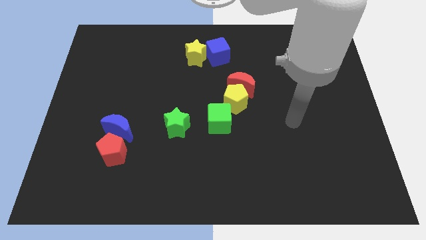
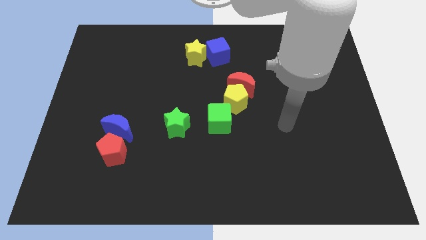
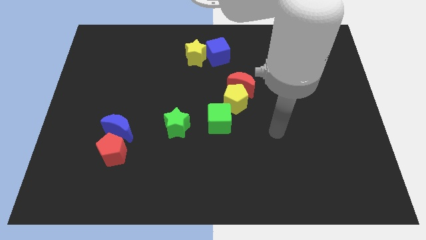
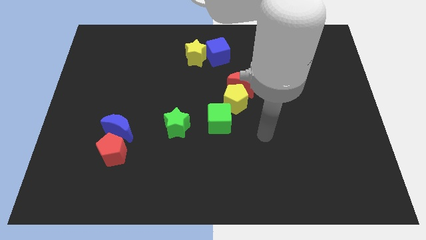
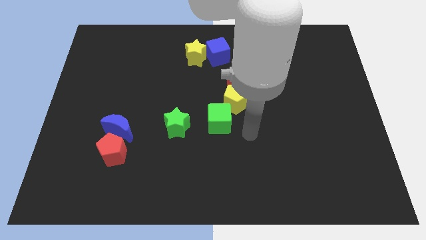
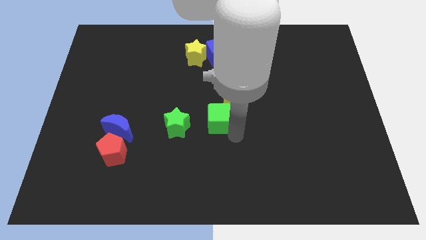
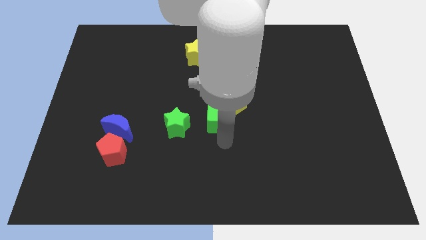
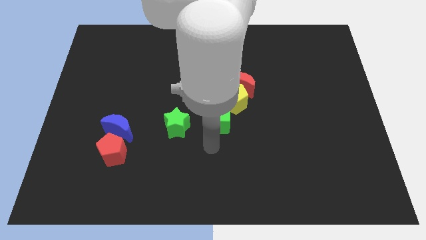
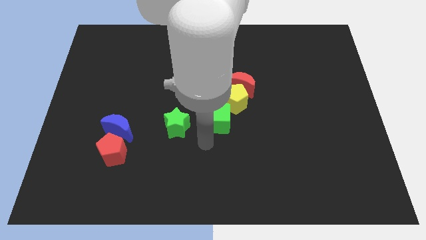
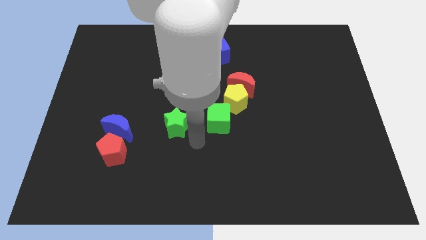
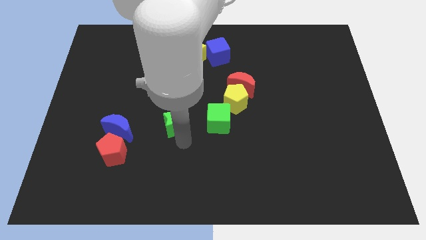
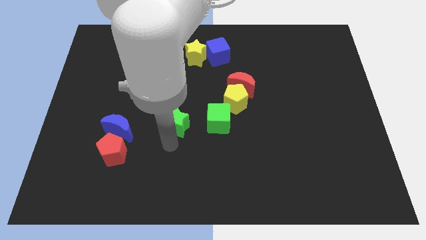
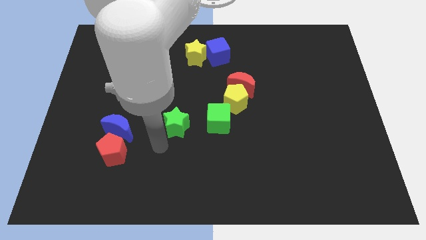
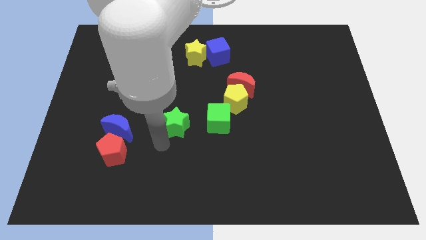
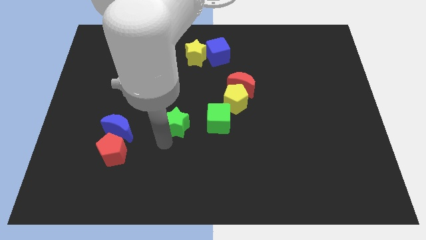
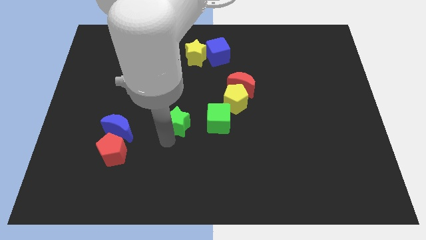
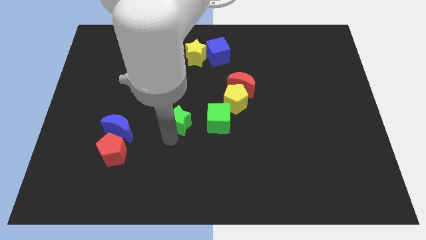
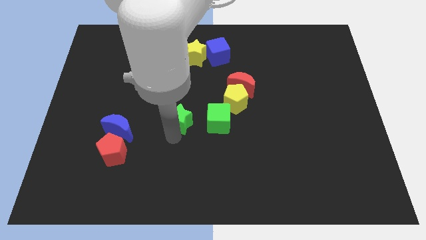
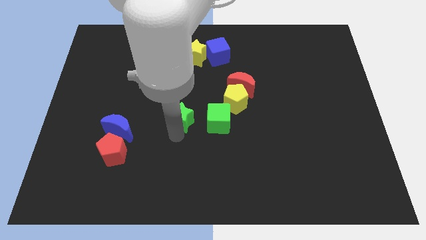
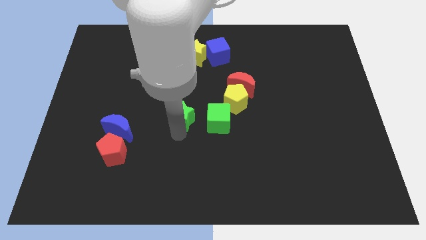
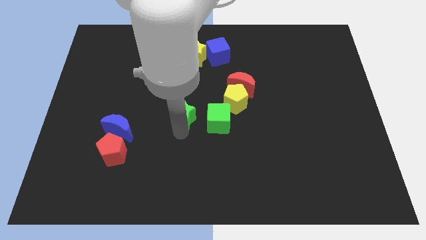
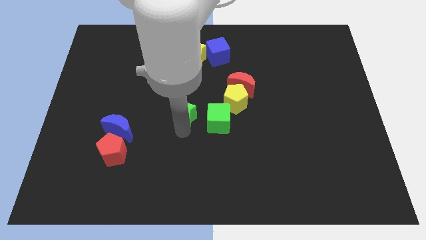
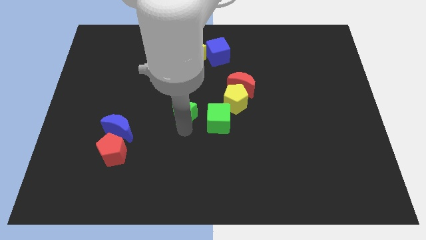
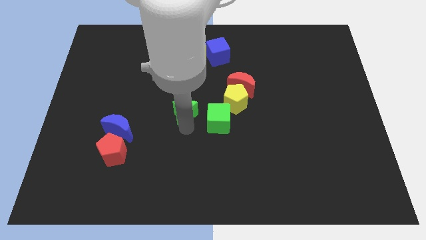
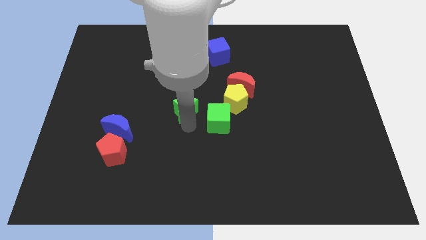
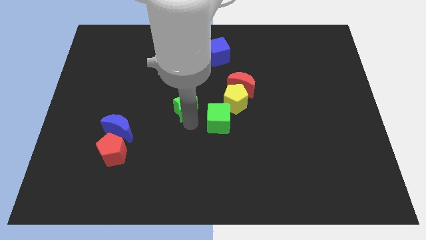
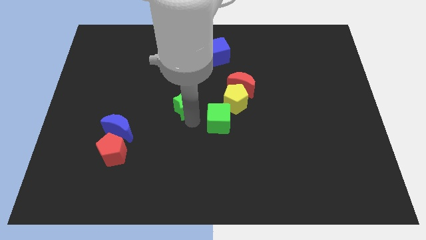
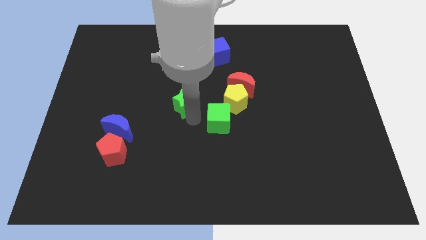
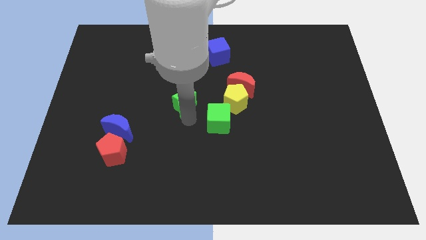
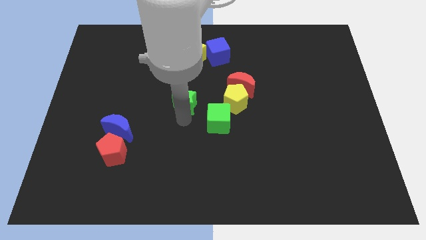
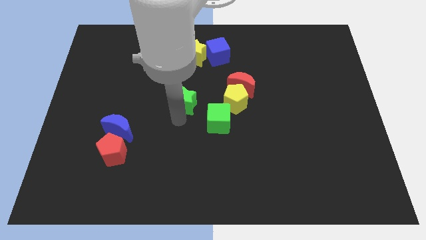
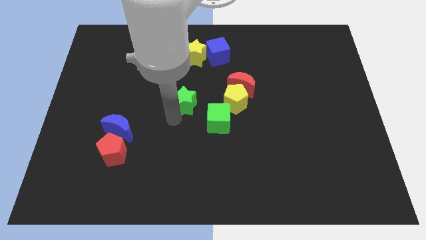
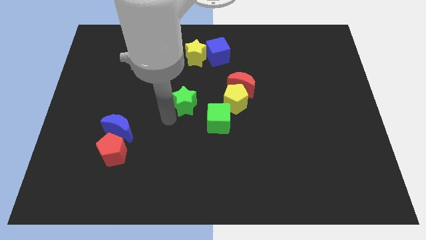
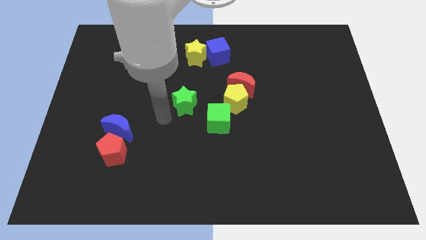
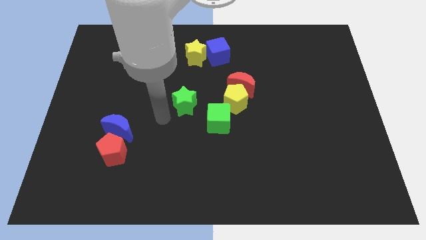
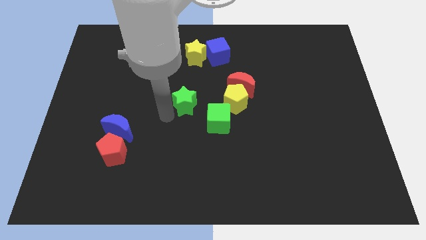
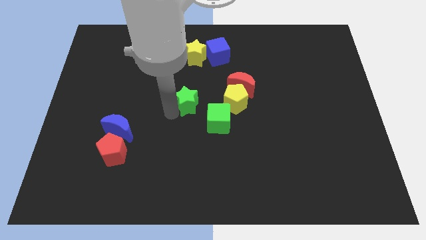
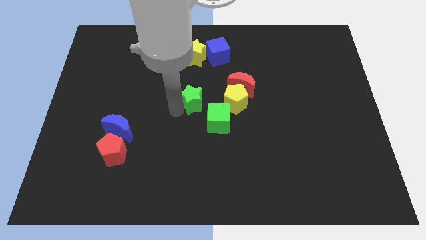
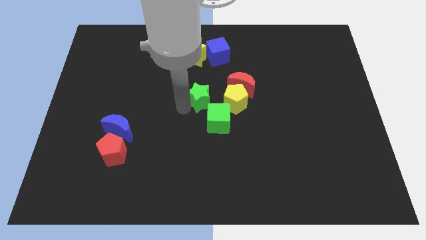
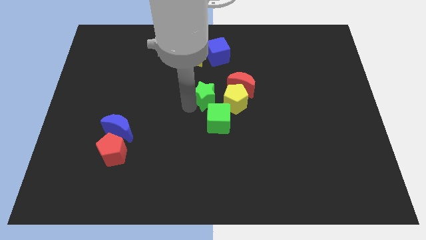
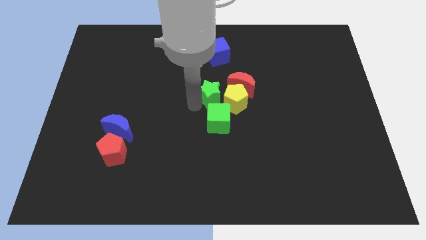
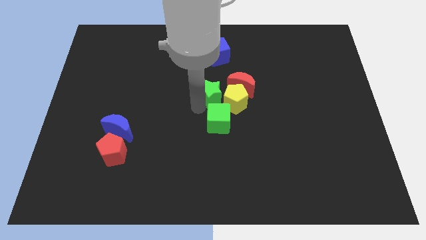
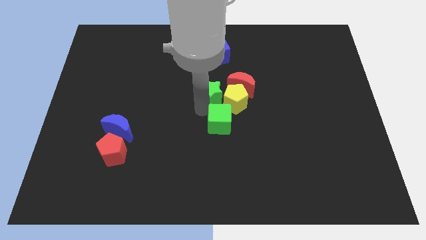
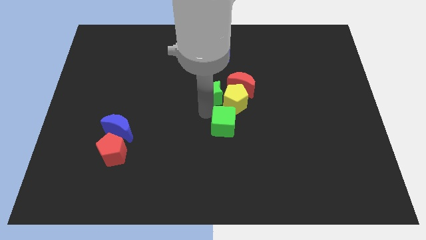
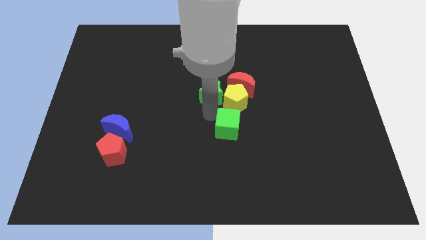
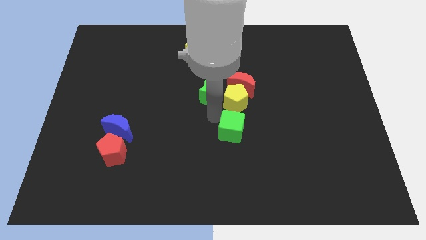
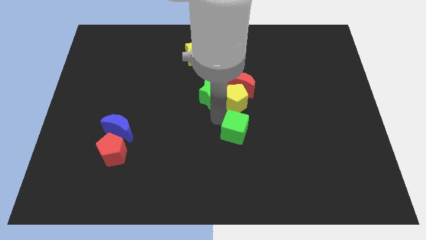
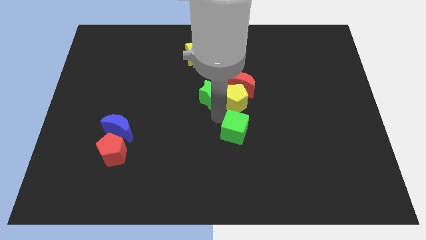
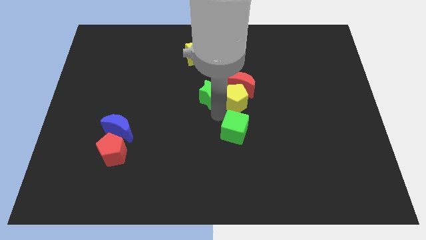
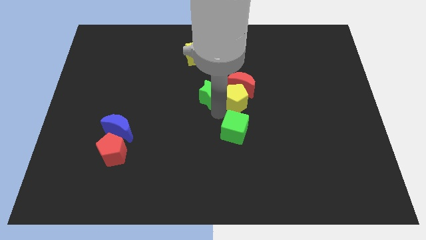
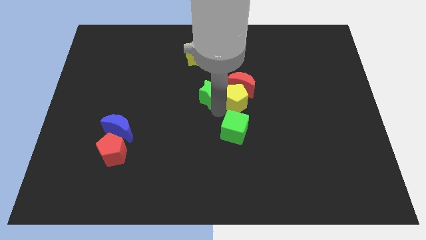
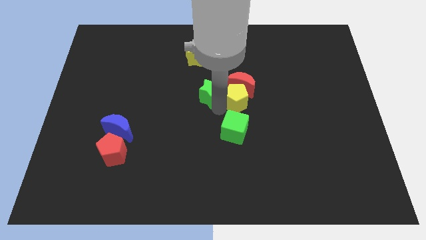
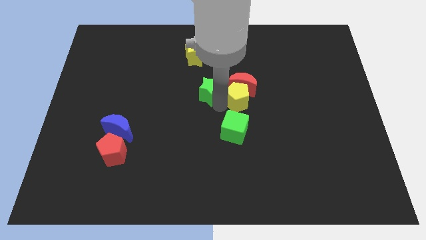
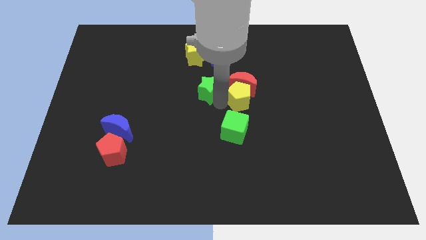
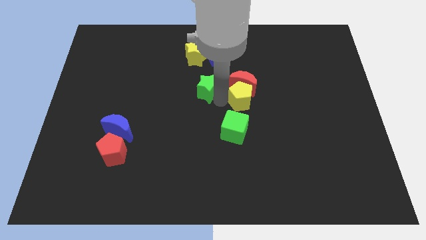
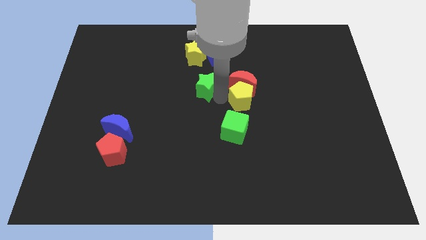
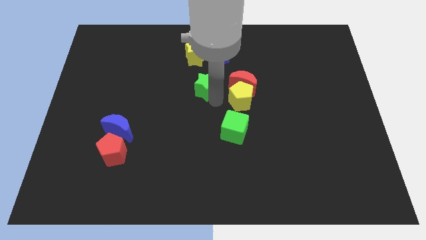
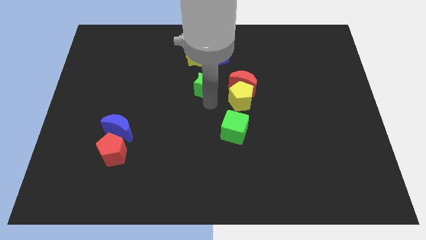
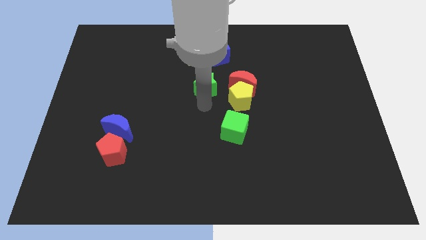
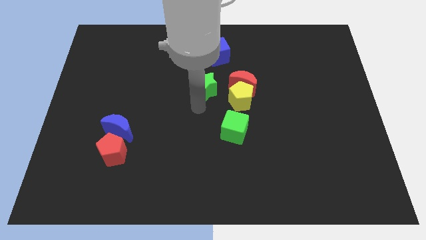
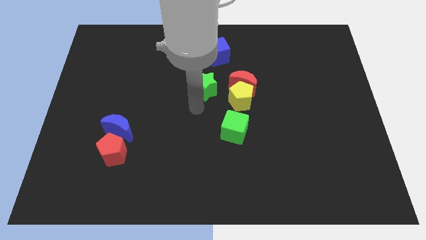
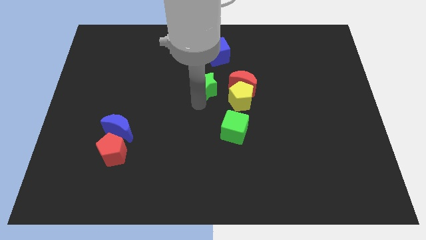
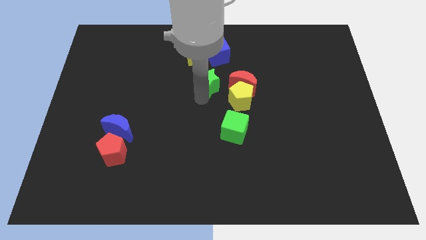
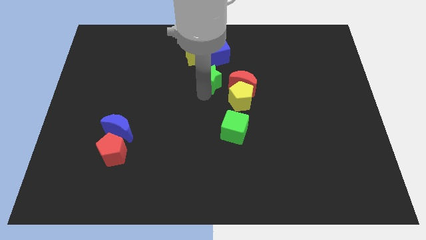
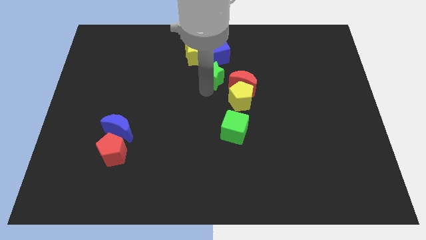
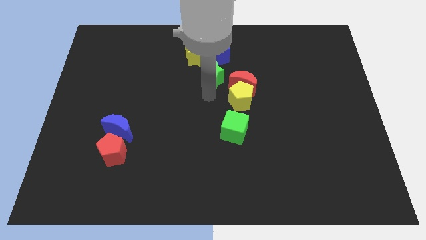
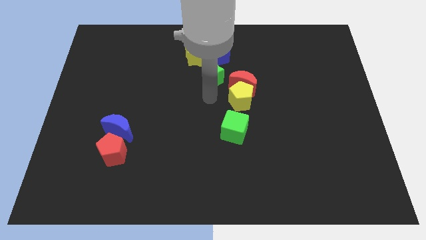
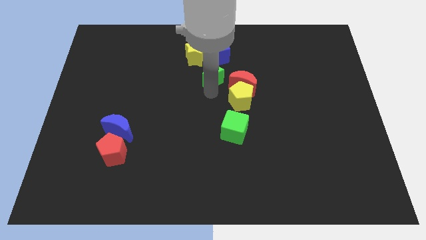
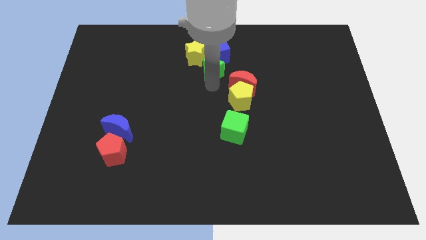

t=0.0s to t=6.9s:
move the green star next to the blue cube

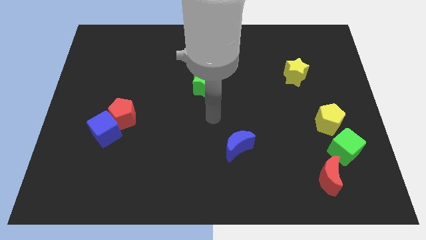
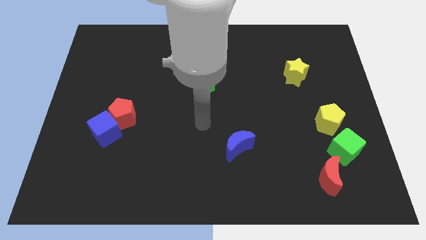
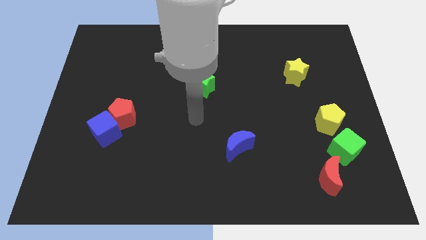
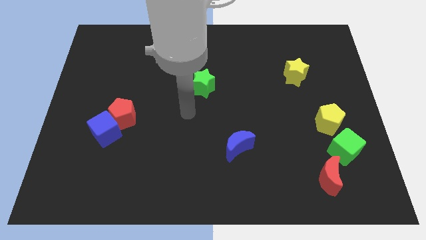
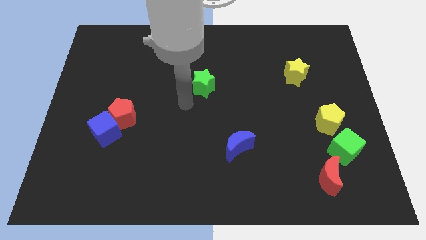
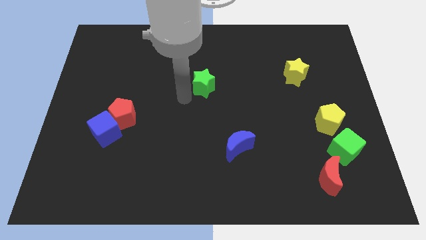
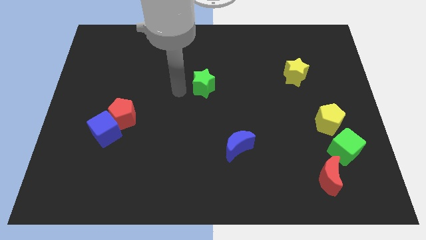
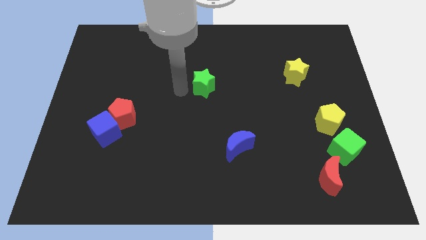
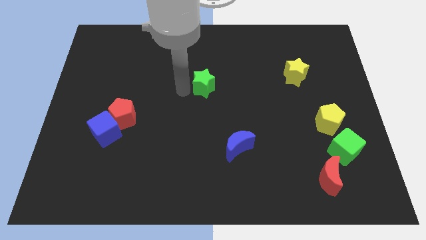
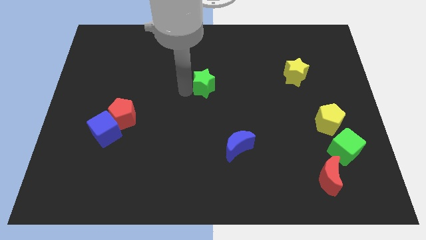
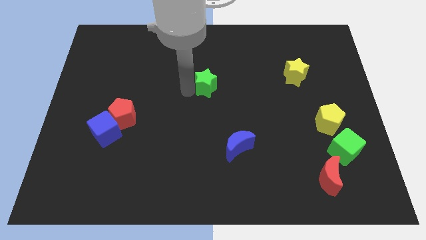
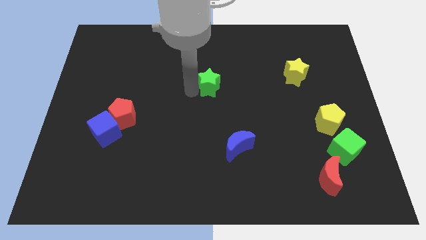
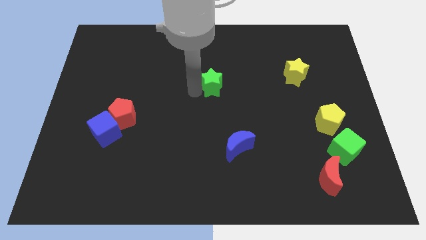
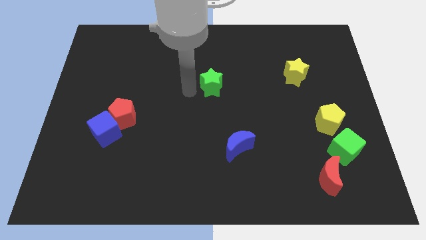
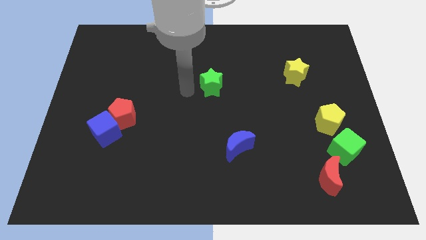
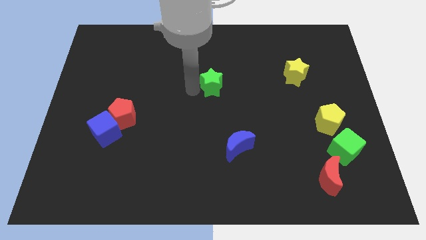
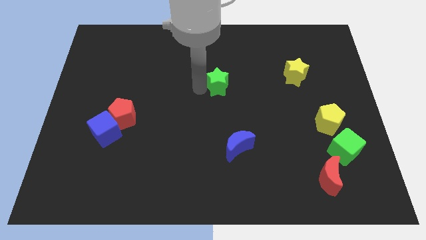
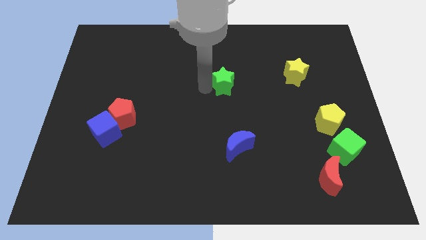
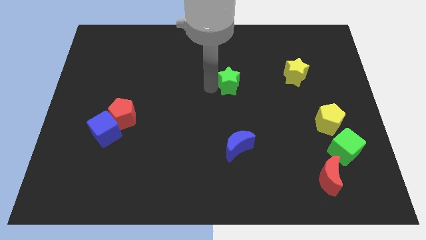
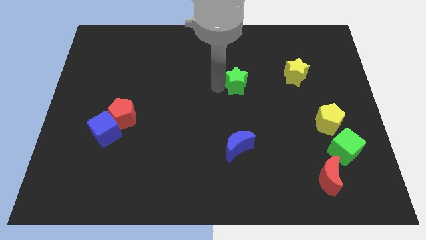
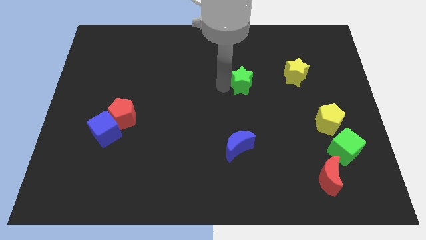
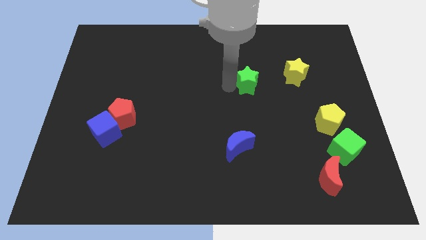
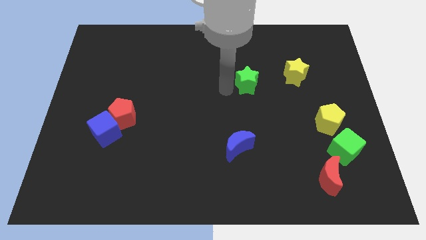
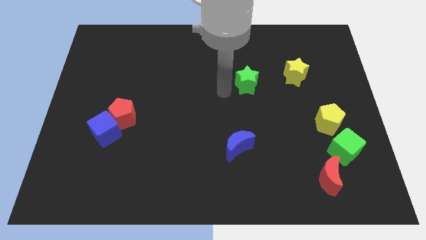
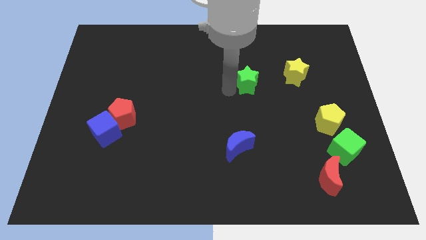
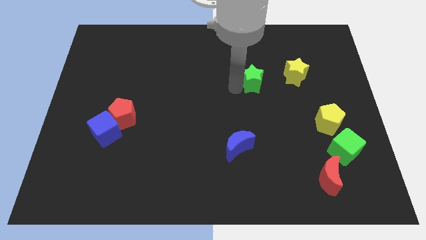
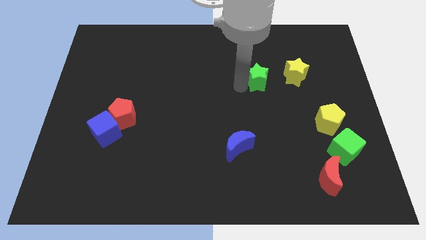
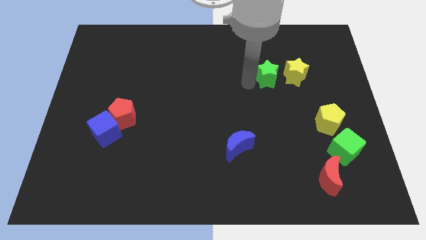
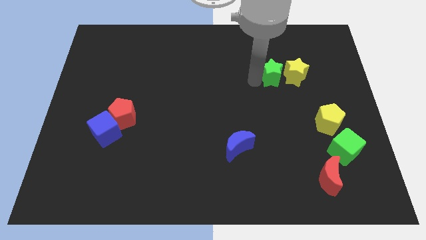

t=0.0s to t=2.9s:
put the green star towards the yellow star
